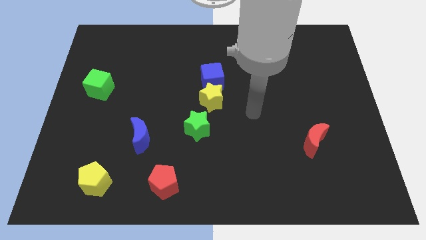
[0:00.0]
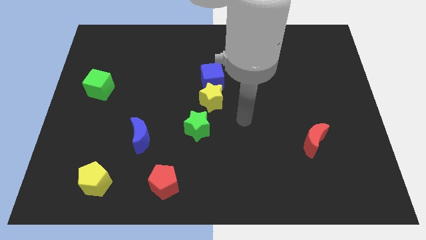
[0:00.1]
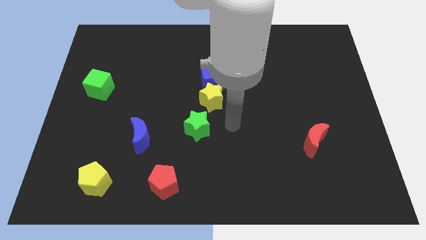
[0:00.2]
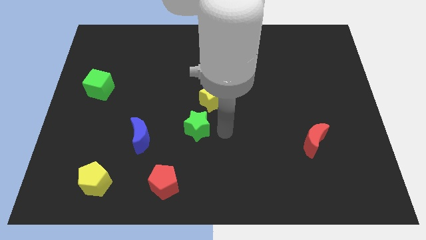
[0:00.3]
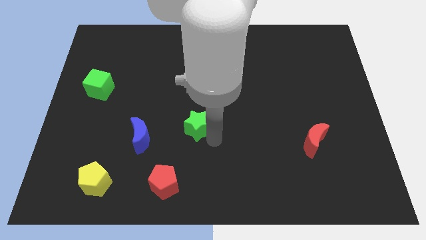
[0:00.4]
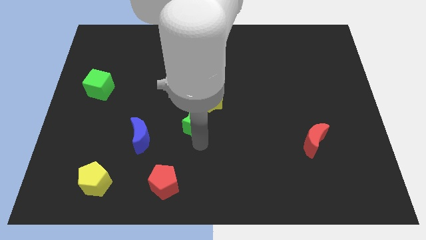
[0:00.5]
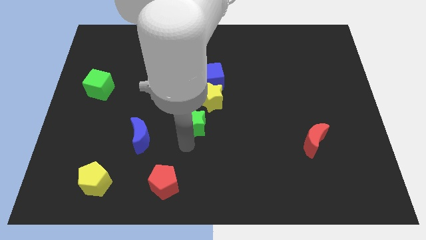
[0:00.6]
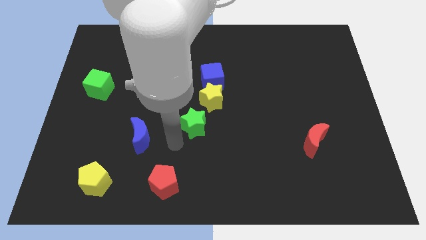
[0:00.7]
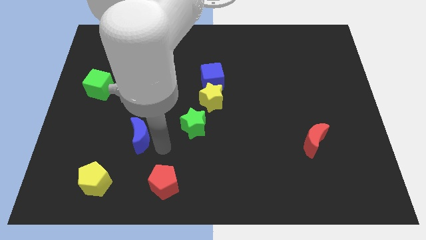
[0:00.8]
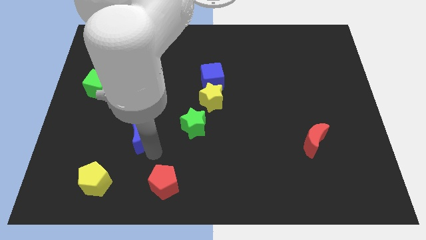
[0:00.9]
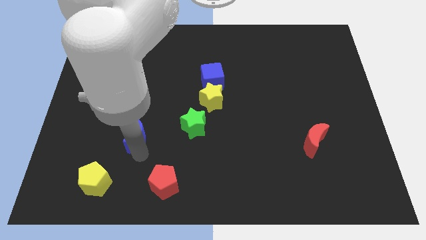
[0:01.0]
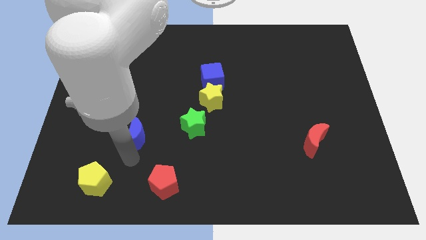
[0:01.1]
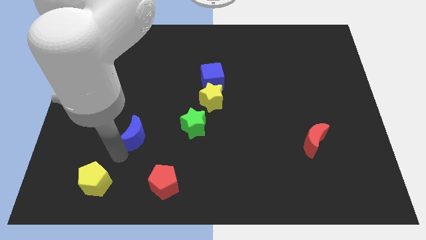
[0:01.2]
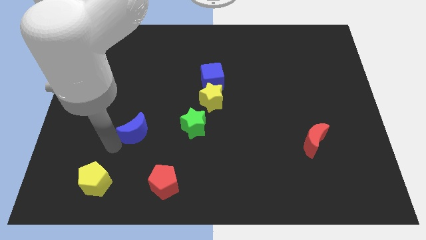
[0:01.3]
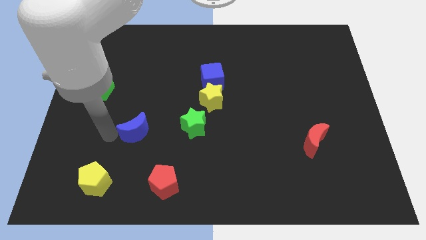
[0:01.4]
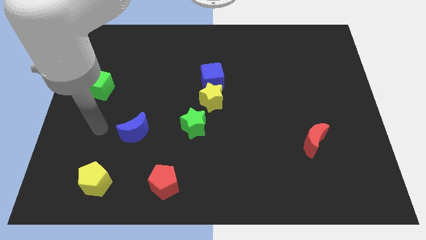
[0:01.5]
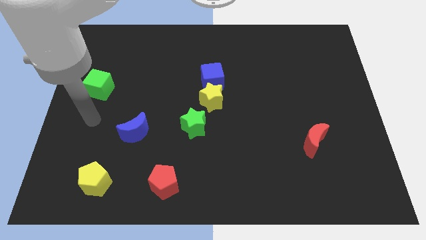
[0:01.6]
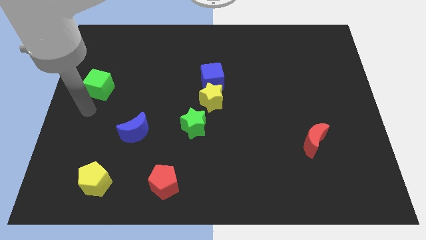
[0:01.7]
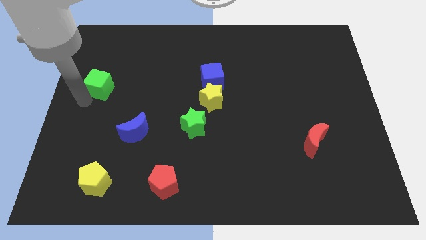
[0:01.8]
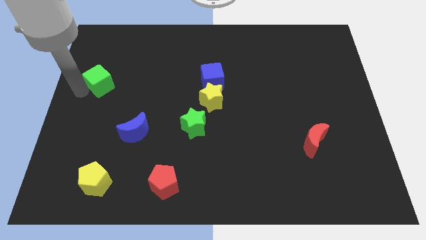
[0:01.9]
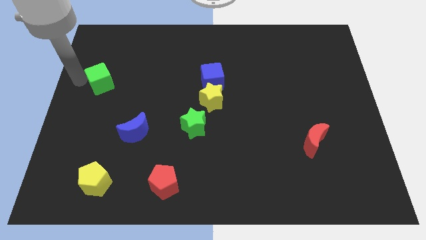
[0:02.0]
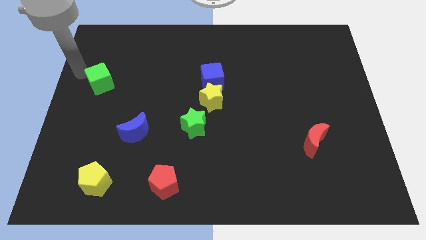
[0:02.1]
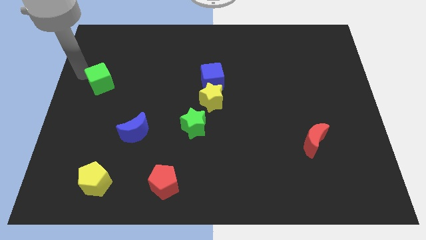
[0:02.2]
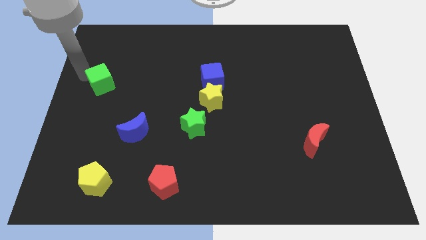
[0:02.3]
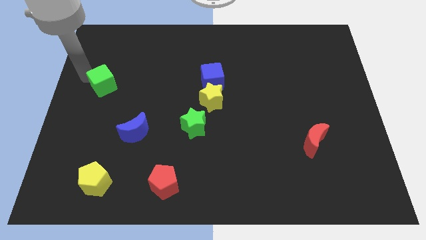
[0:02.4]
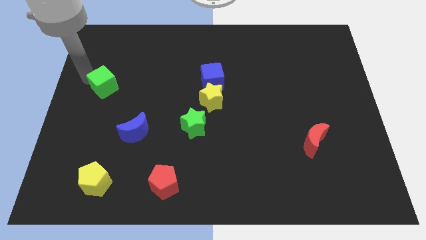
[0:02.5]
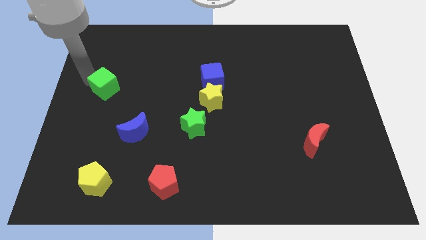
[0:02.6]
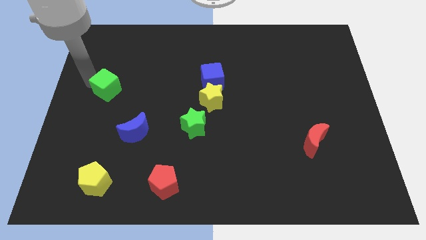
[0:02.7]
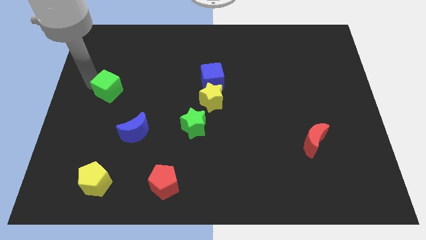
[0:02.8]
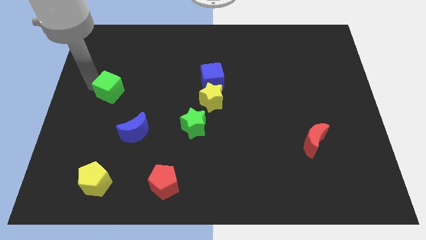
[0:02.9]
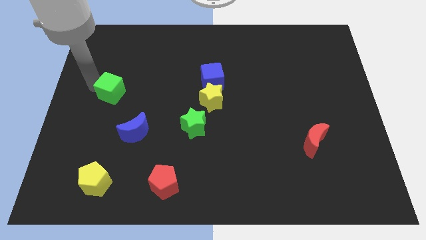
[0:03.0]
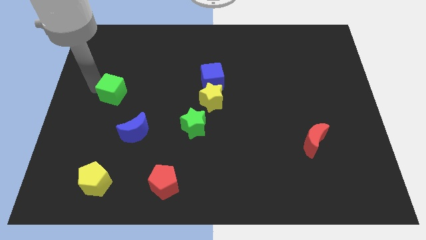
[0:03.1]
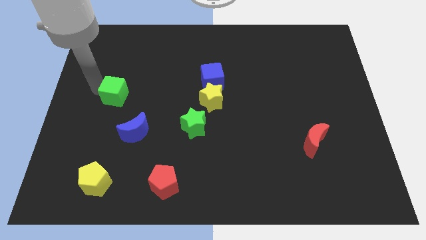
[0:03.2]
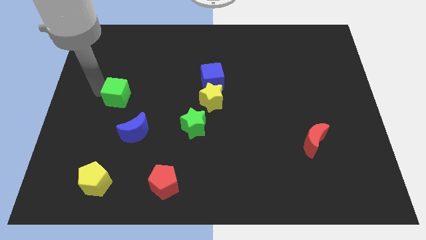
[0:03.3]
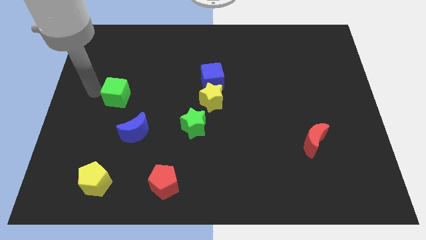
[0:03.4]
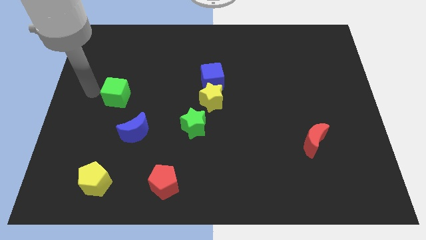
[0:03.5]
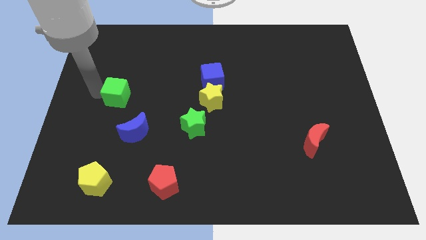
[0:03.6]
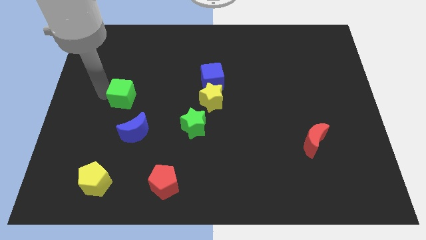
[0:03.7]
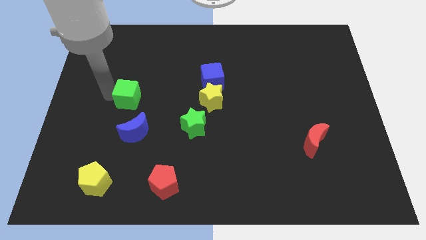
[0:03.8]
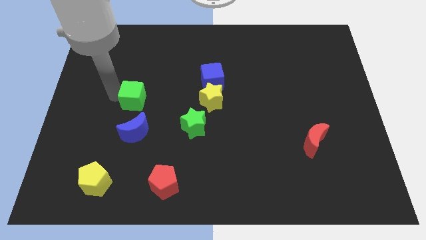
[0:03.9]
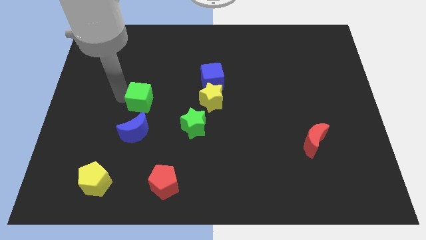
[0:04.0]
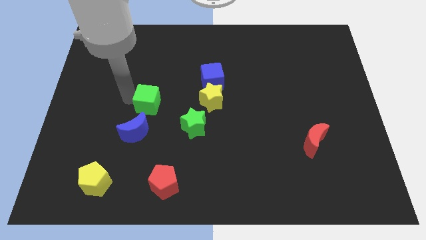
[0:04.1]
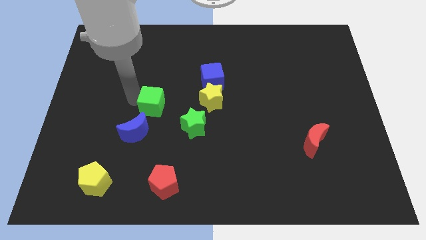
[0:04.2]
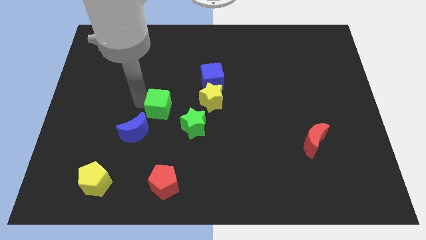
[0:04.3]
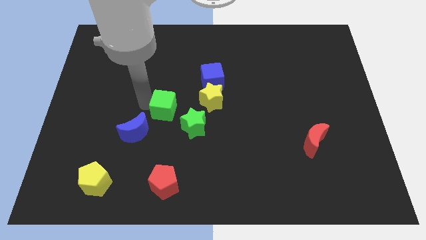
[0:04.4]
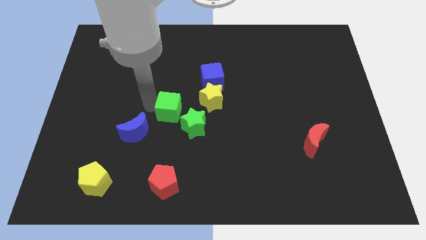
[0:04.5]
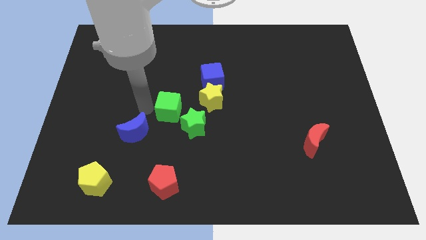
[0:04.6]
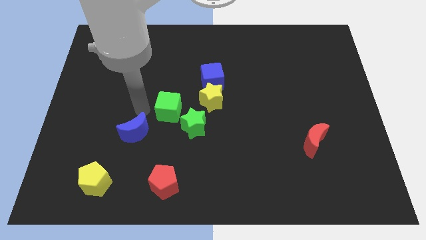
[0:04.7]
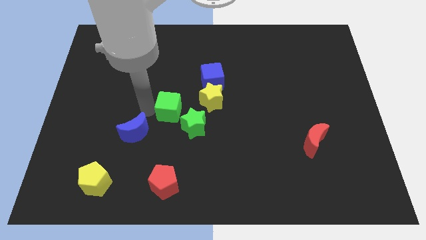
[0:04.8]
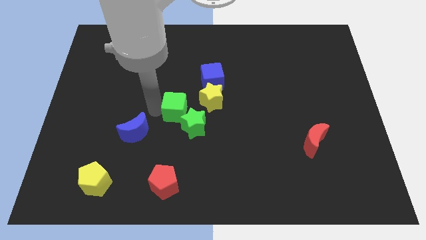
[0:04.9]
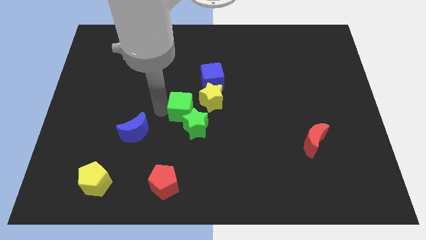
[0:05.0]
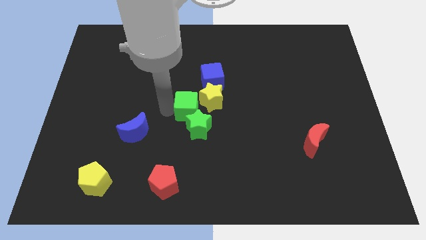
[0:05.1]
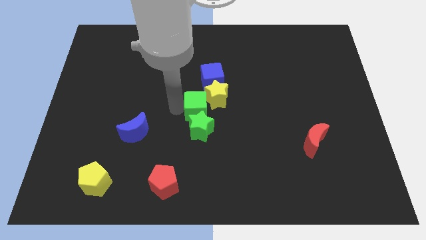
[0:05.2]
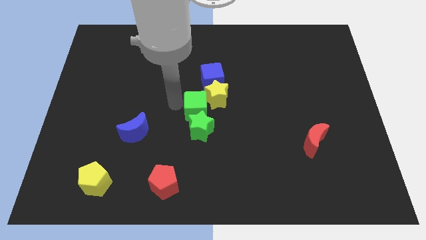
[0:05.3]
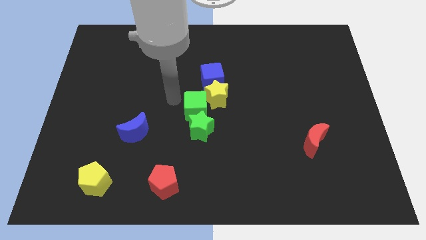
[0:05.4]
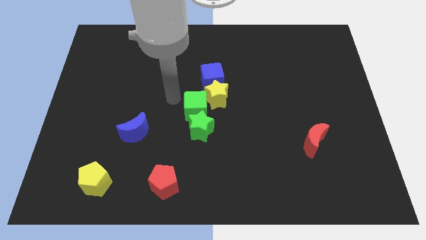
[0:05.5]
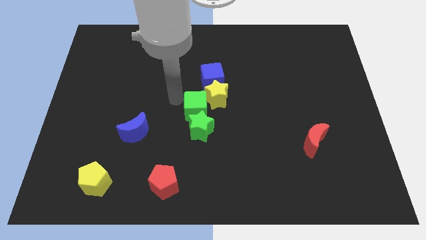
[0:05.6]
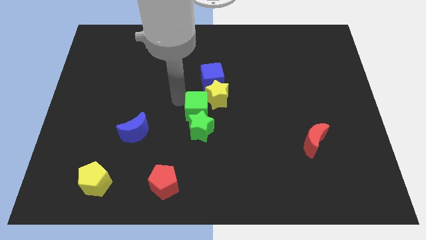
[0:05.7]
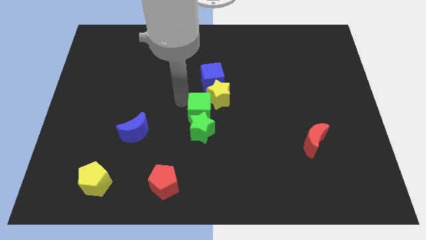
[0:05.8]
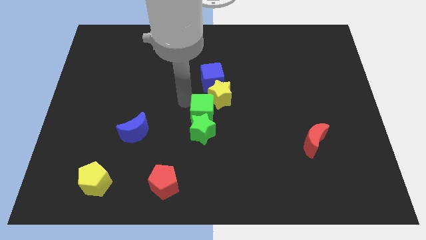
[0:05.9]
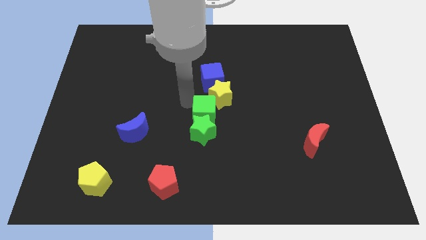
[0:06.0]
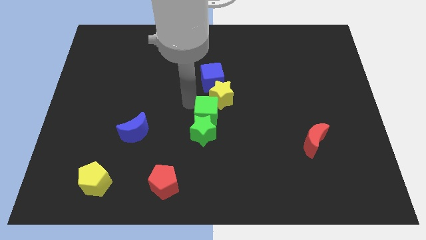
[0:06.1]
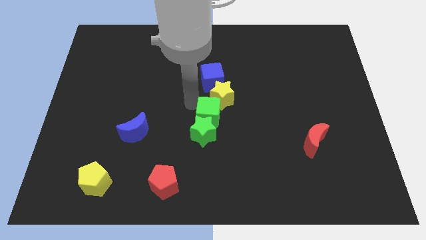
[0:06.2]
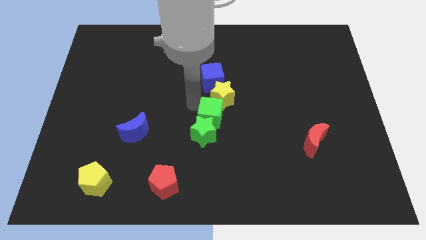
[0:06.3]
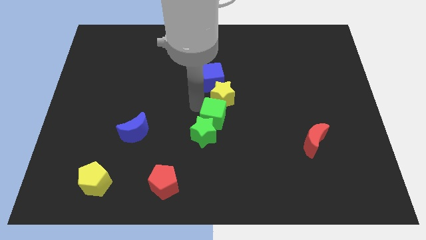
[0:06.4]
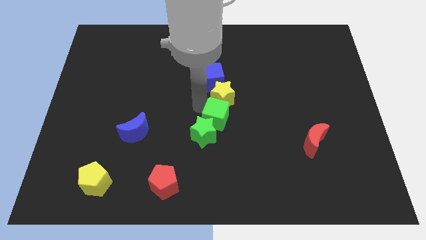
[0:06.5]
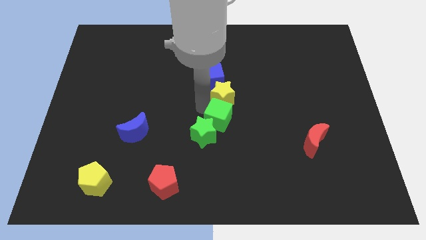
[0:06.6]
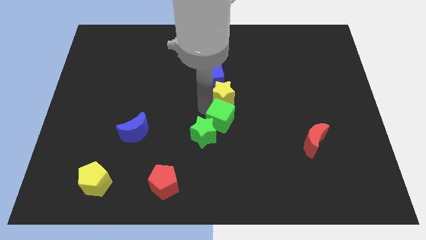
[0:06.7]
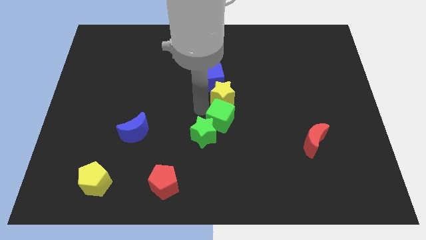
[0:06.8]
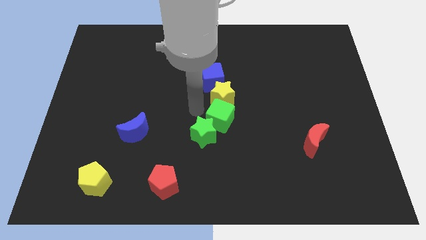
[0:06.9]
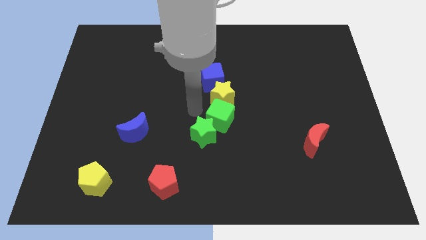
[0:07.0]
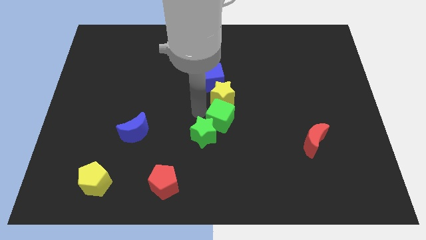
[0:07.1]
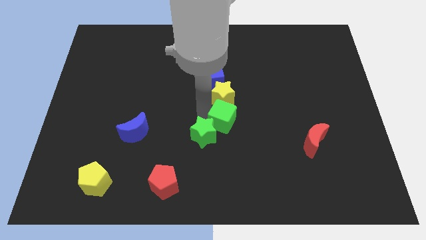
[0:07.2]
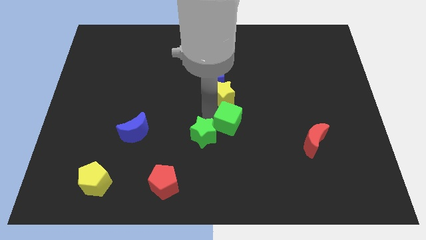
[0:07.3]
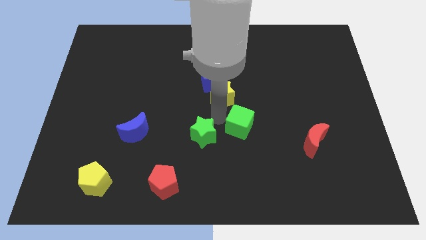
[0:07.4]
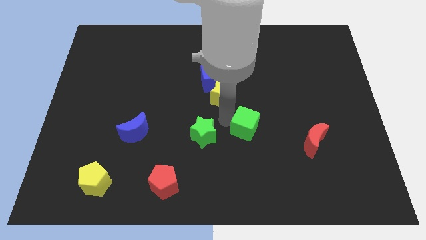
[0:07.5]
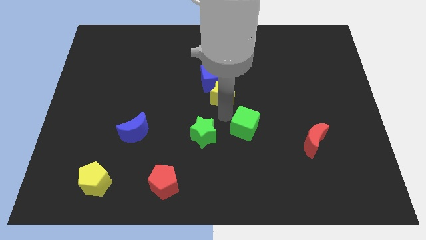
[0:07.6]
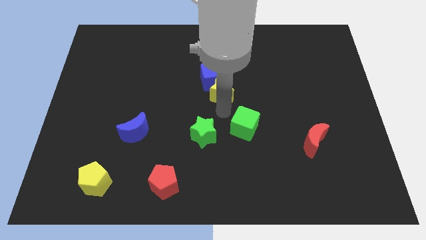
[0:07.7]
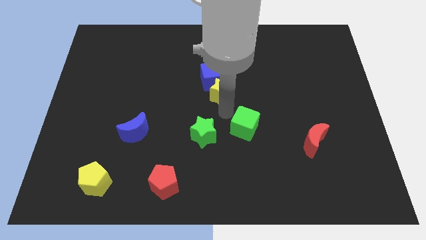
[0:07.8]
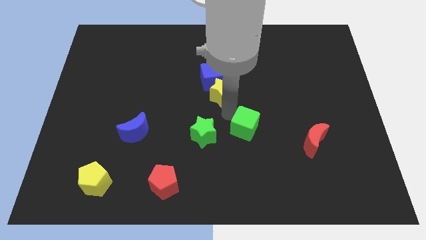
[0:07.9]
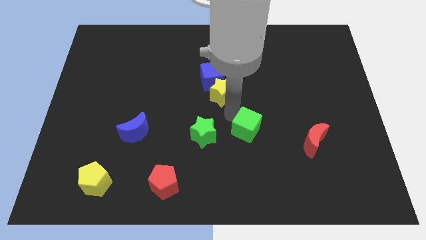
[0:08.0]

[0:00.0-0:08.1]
slide the green cube to the left side of the red moon
